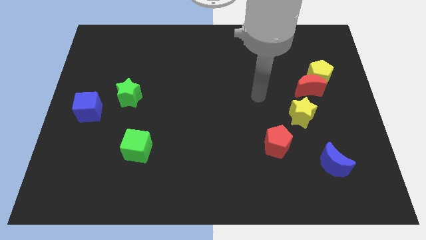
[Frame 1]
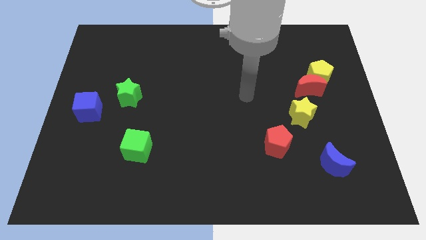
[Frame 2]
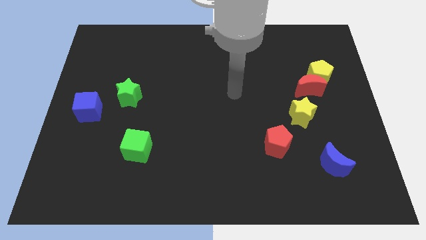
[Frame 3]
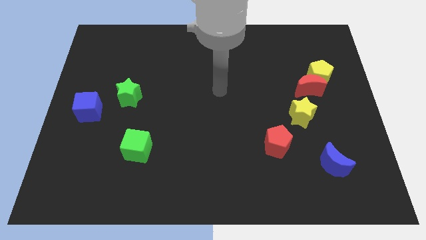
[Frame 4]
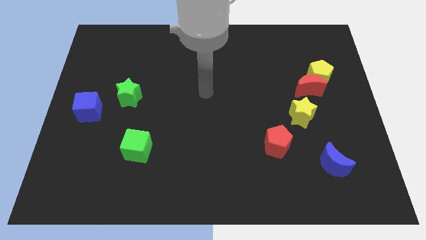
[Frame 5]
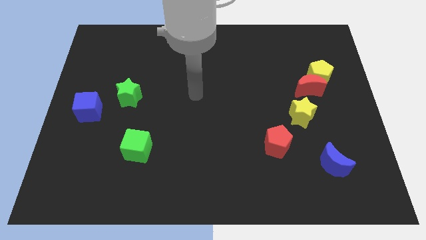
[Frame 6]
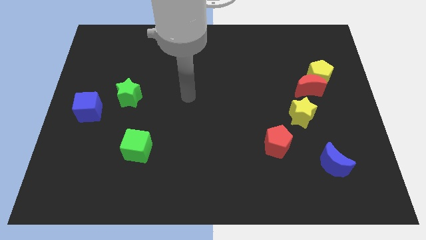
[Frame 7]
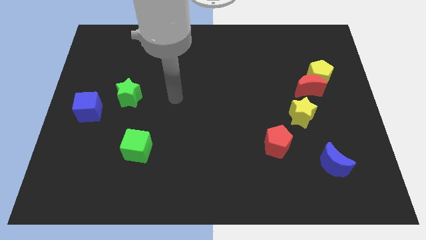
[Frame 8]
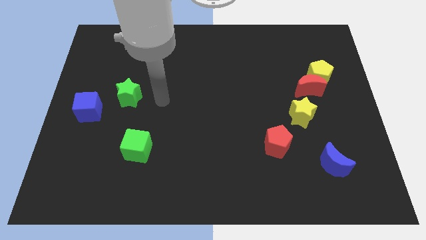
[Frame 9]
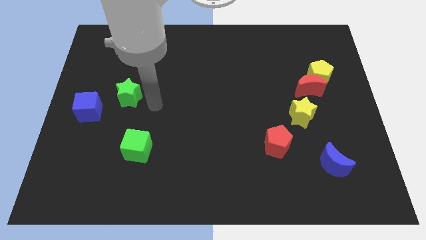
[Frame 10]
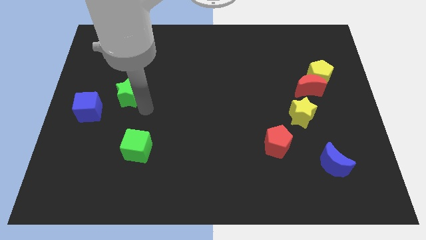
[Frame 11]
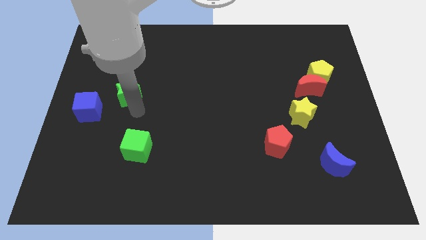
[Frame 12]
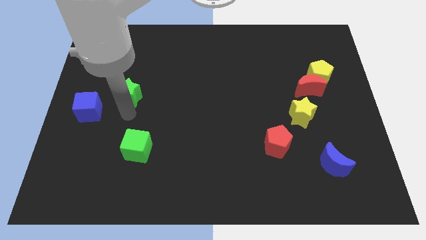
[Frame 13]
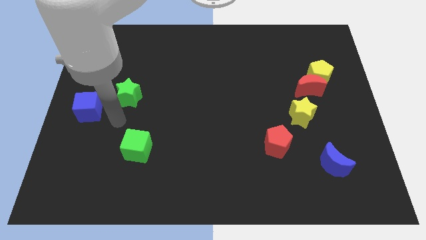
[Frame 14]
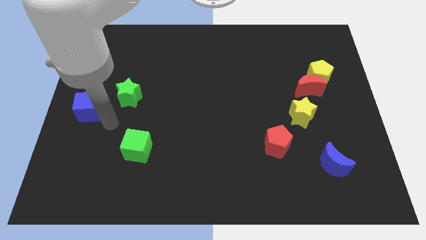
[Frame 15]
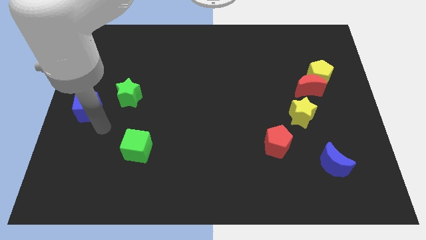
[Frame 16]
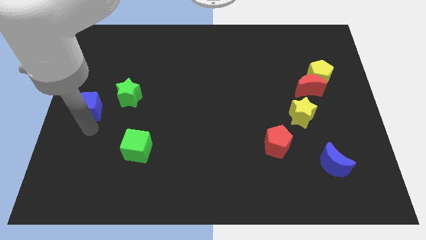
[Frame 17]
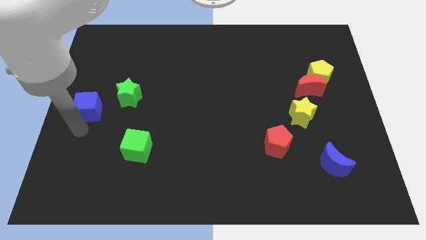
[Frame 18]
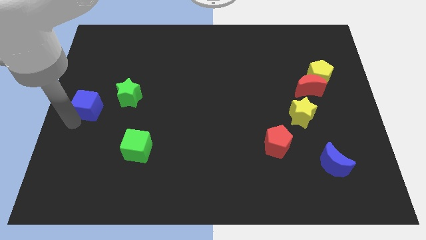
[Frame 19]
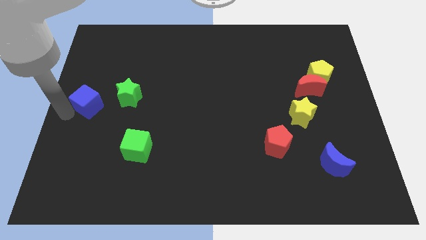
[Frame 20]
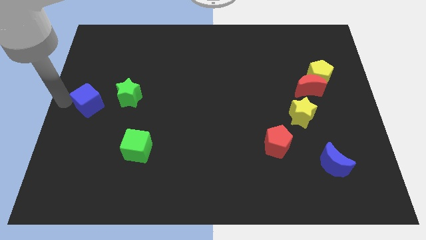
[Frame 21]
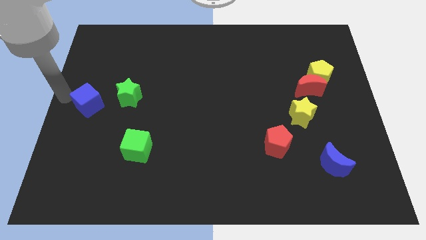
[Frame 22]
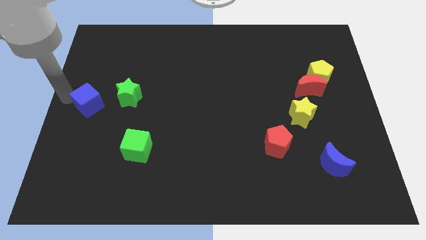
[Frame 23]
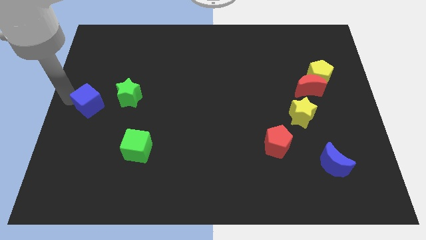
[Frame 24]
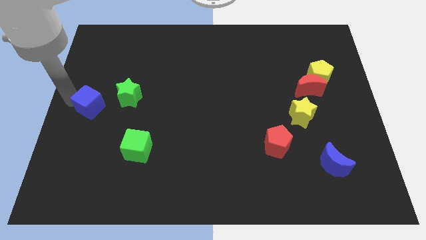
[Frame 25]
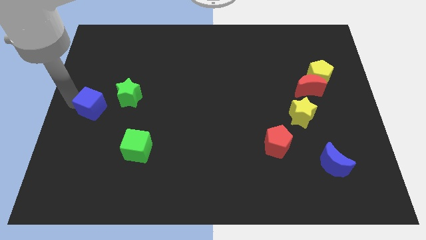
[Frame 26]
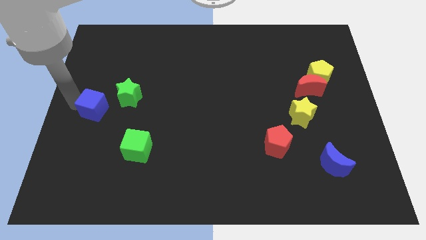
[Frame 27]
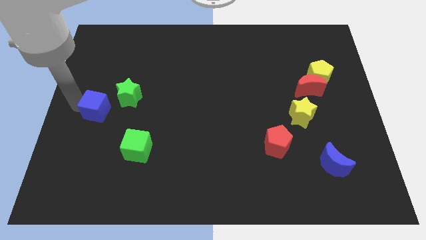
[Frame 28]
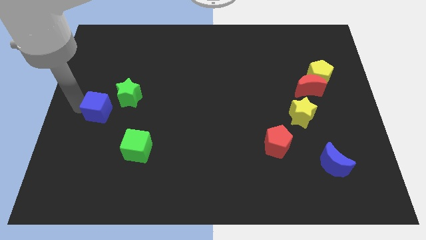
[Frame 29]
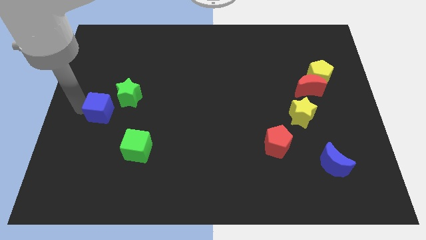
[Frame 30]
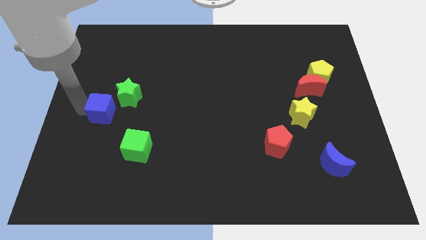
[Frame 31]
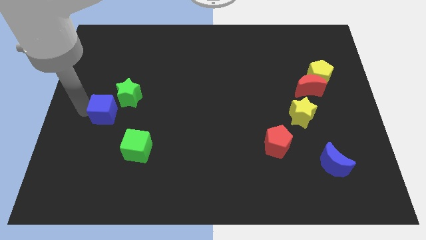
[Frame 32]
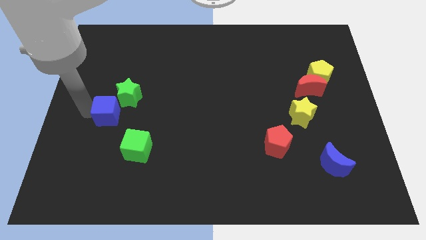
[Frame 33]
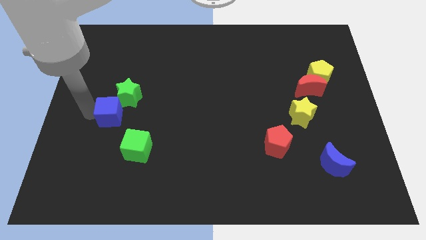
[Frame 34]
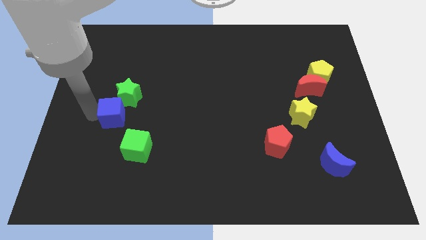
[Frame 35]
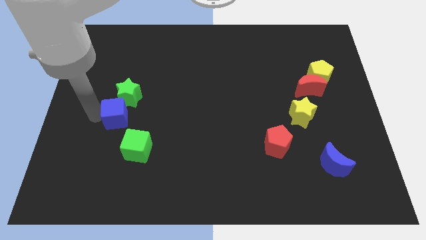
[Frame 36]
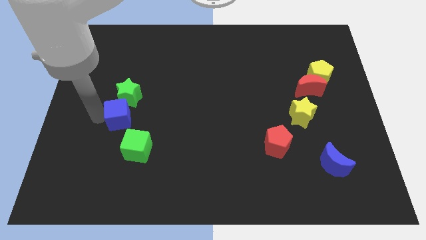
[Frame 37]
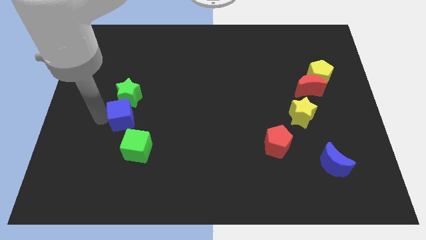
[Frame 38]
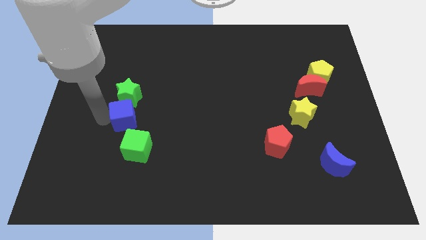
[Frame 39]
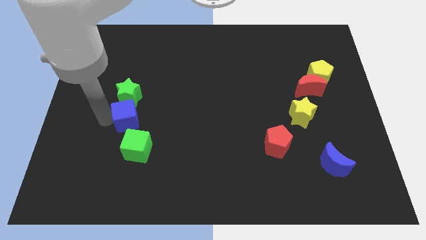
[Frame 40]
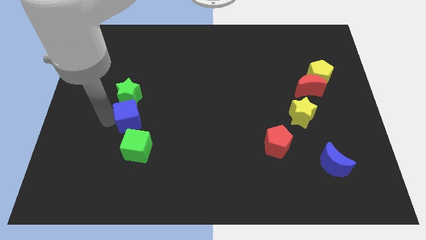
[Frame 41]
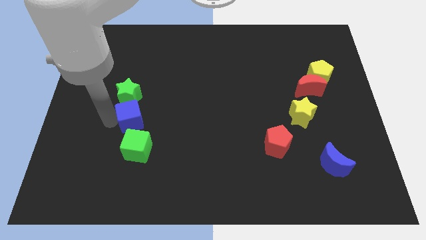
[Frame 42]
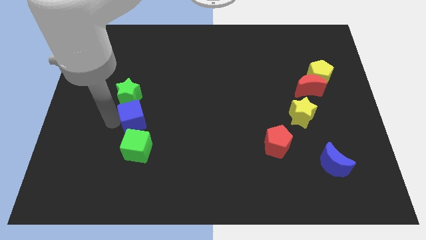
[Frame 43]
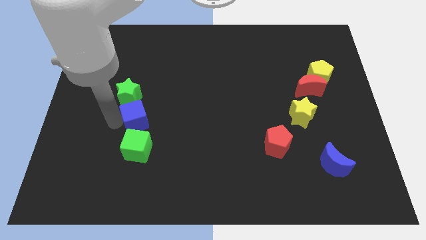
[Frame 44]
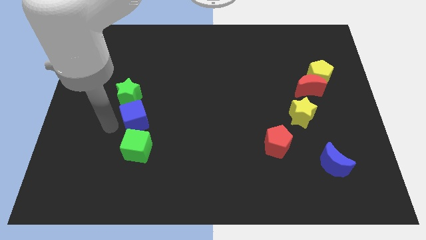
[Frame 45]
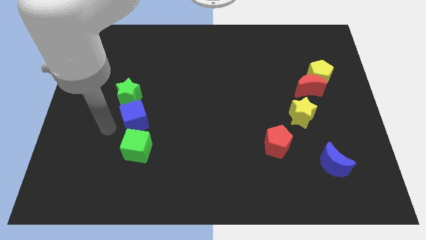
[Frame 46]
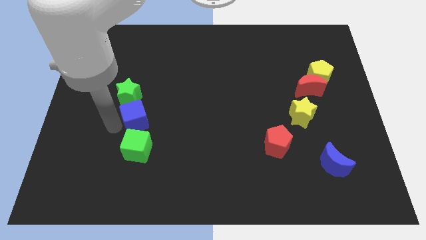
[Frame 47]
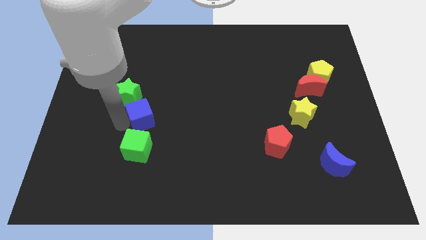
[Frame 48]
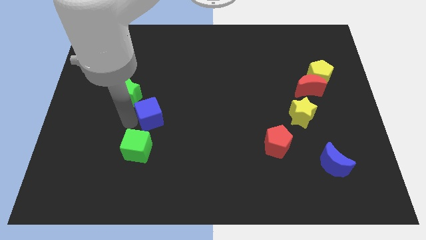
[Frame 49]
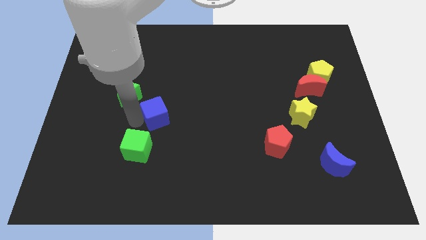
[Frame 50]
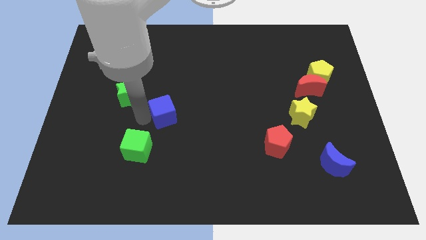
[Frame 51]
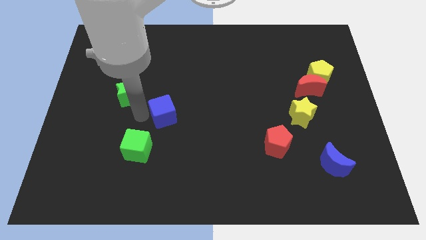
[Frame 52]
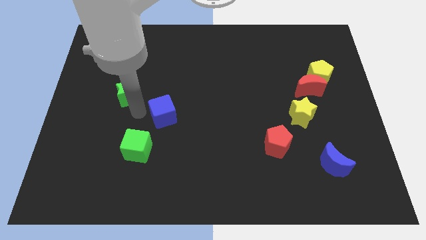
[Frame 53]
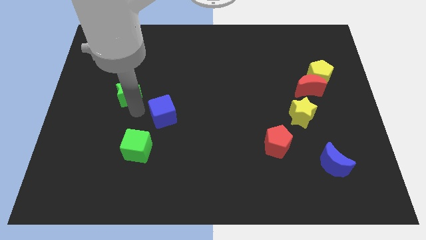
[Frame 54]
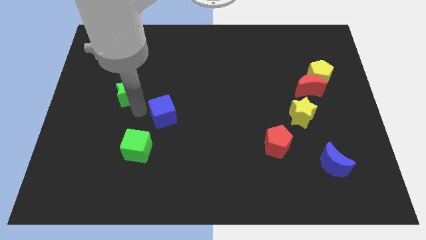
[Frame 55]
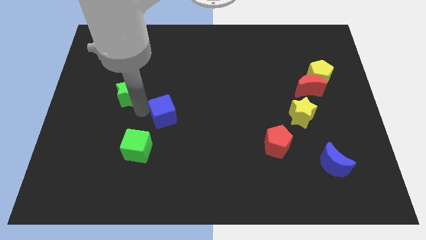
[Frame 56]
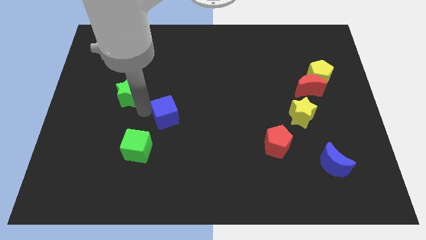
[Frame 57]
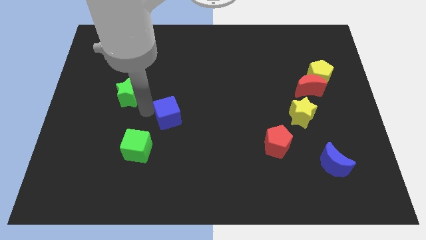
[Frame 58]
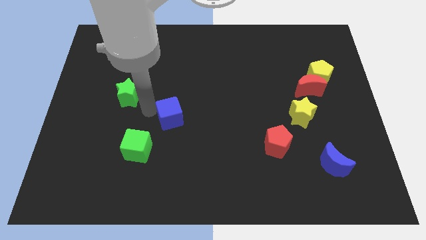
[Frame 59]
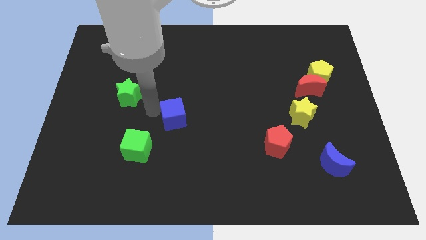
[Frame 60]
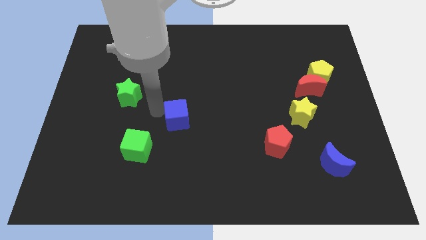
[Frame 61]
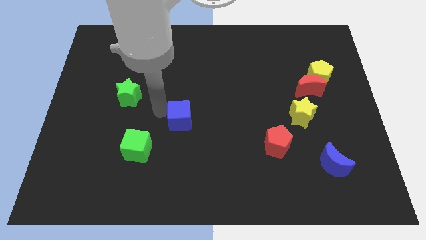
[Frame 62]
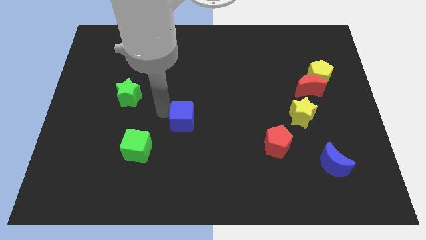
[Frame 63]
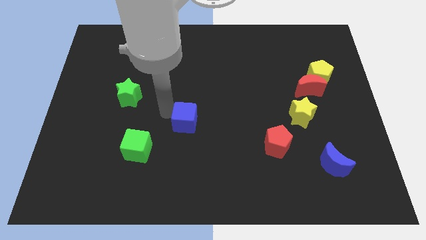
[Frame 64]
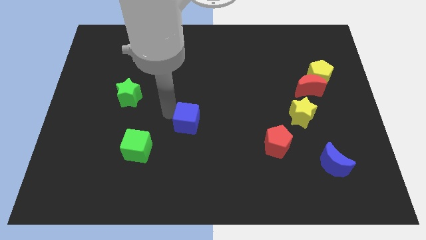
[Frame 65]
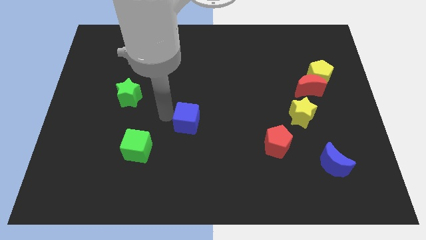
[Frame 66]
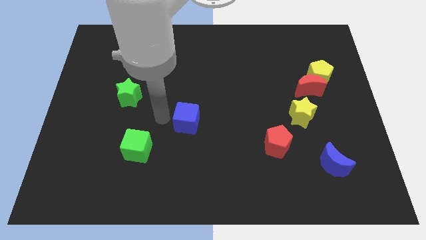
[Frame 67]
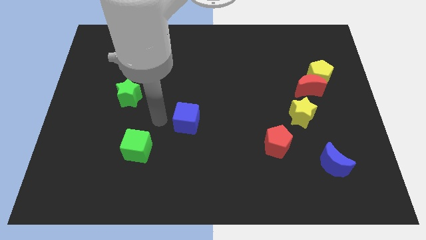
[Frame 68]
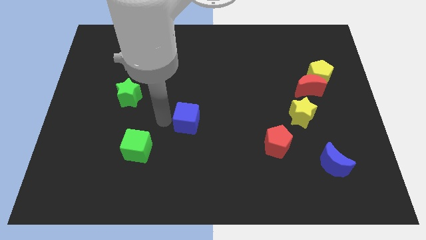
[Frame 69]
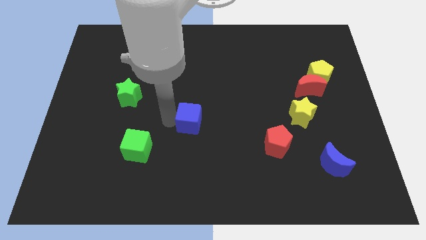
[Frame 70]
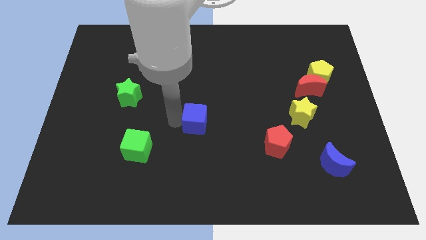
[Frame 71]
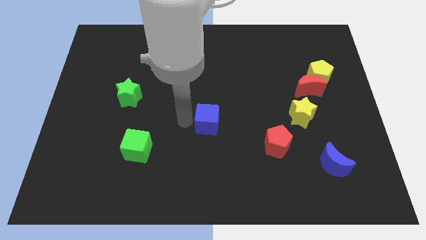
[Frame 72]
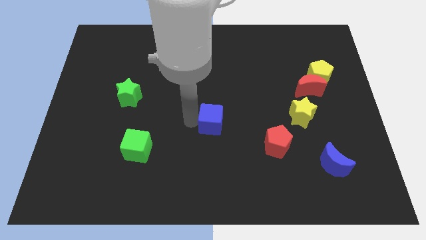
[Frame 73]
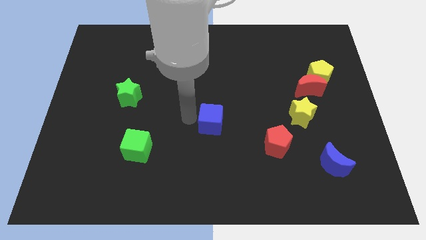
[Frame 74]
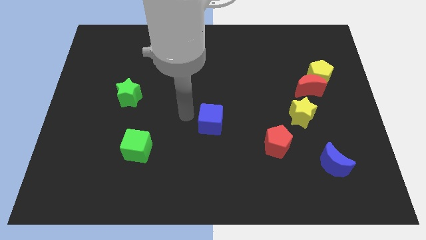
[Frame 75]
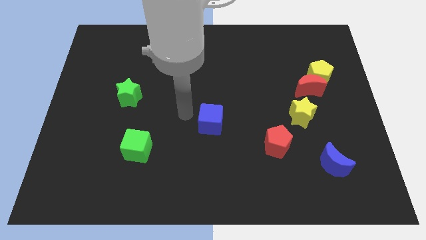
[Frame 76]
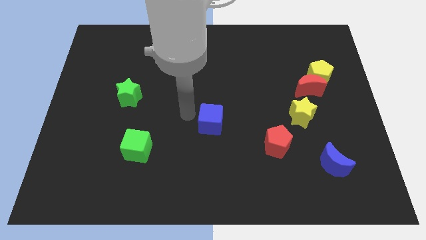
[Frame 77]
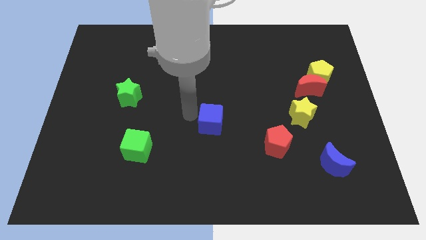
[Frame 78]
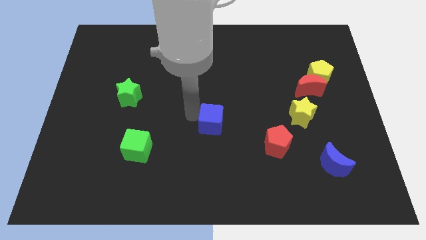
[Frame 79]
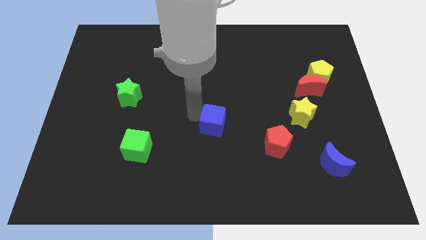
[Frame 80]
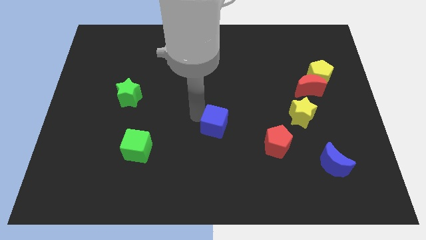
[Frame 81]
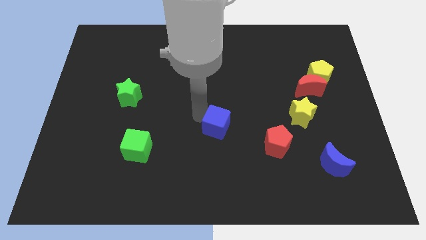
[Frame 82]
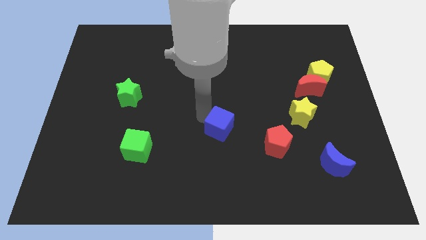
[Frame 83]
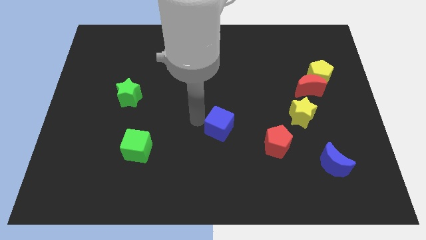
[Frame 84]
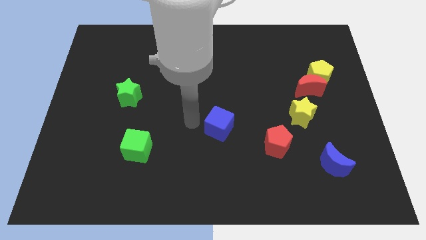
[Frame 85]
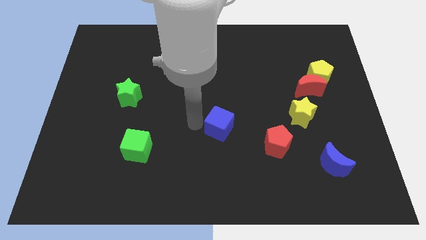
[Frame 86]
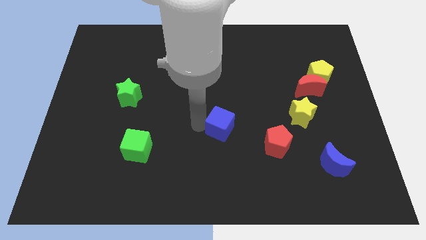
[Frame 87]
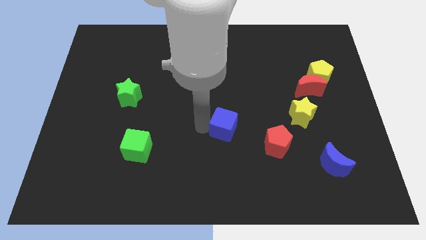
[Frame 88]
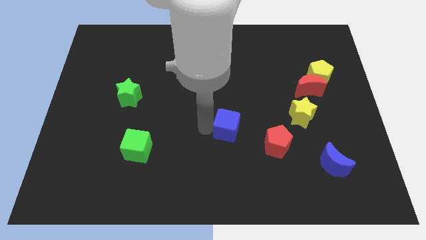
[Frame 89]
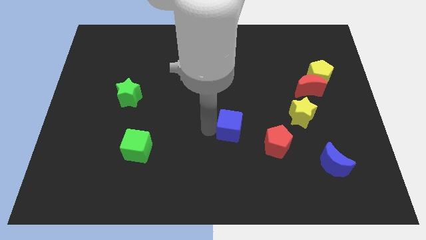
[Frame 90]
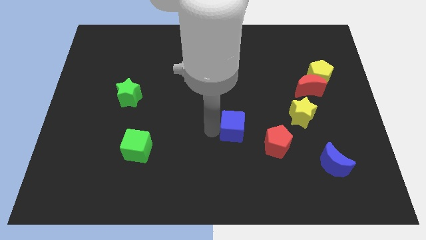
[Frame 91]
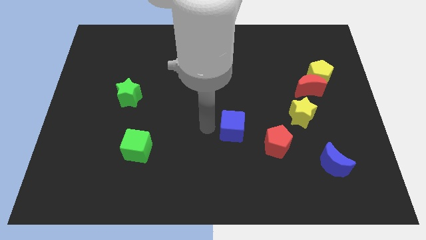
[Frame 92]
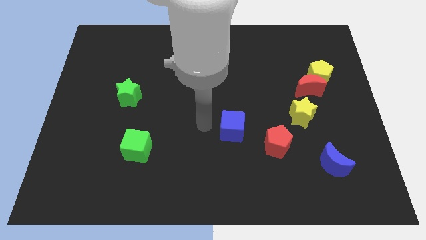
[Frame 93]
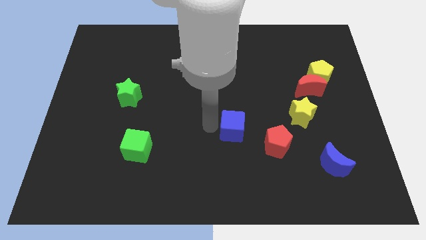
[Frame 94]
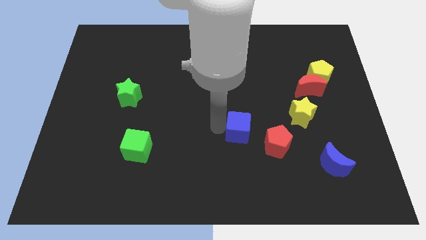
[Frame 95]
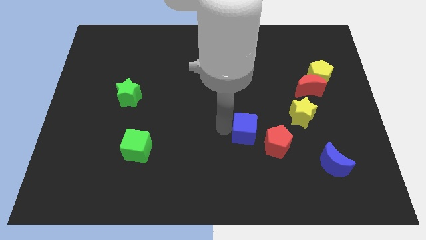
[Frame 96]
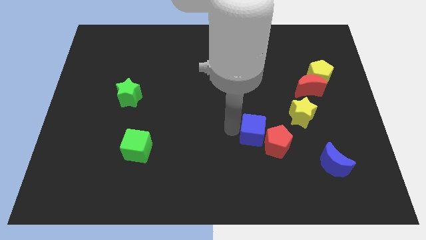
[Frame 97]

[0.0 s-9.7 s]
move the blue cube towards the red pentagon
